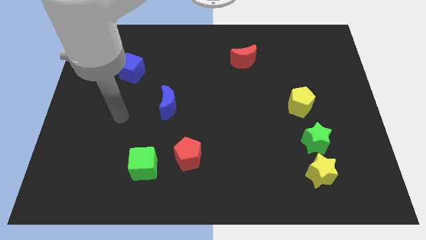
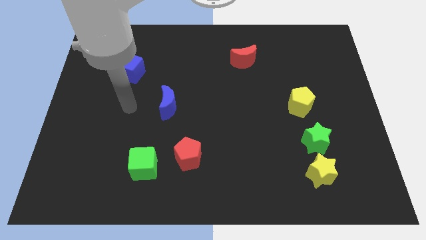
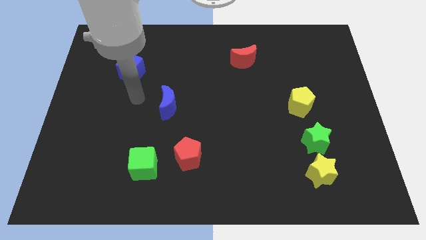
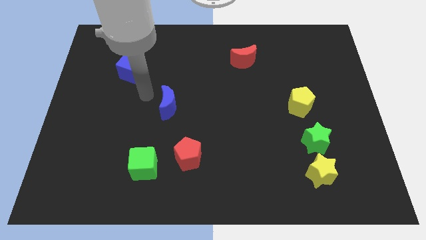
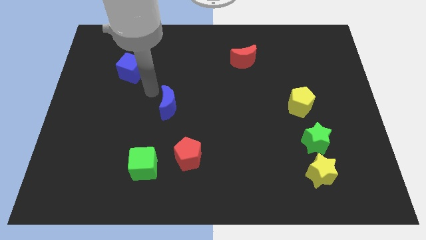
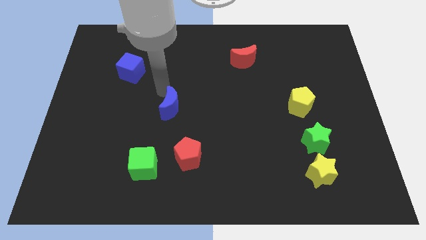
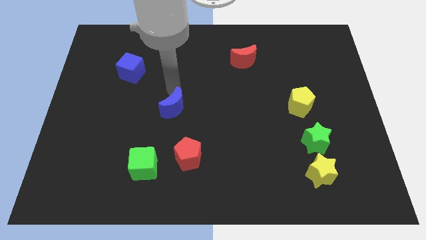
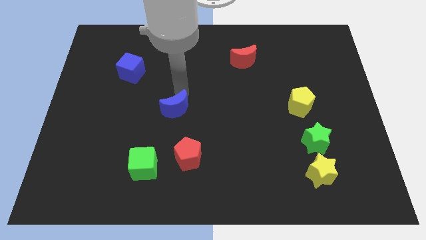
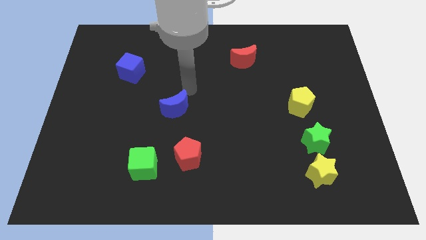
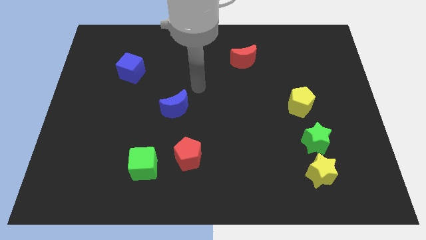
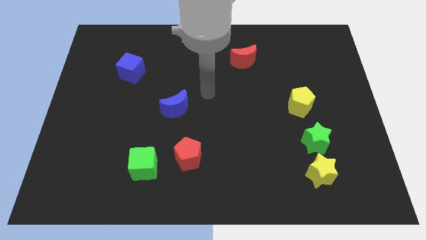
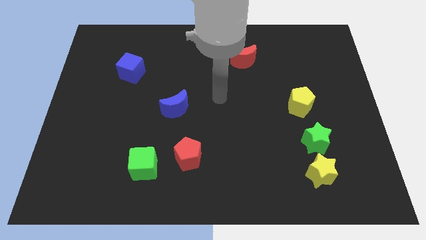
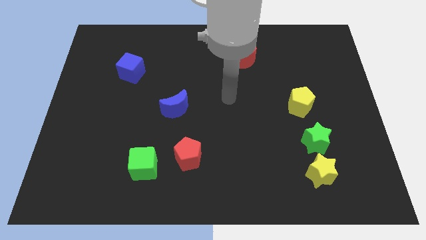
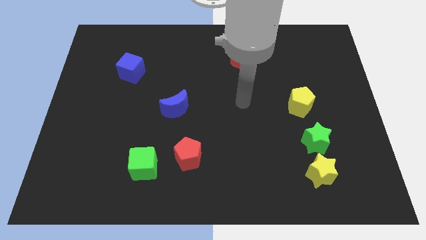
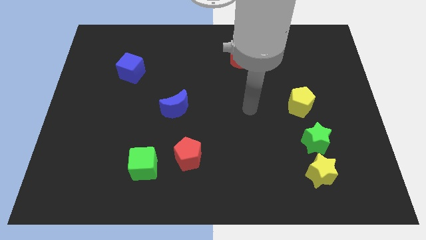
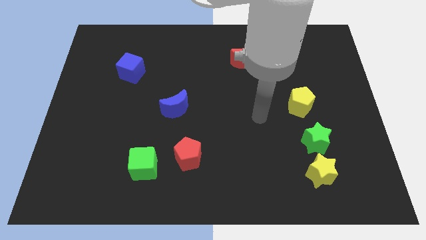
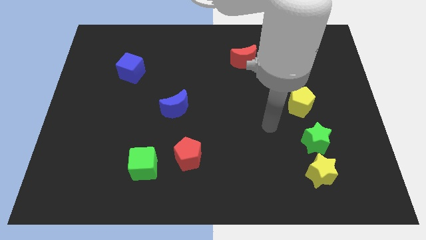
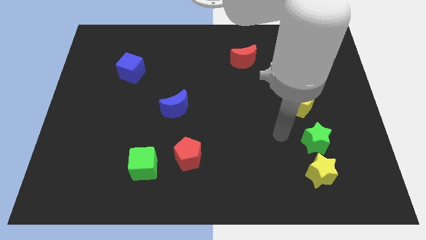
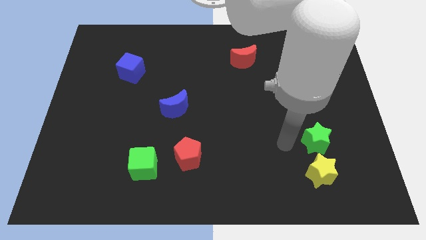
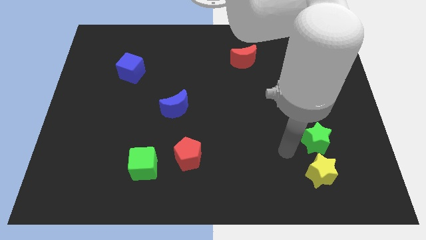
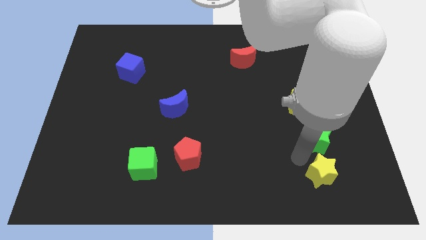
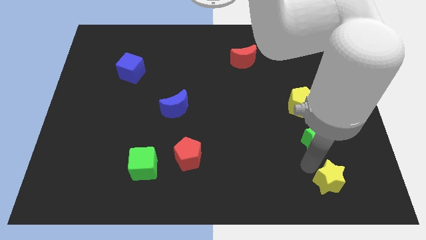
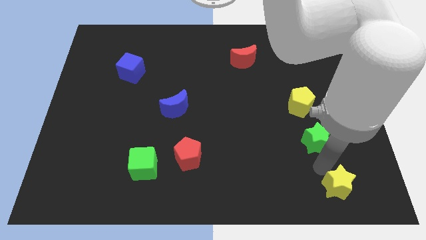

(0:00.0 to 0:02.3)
separate the green star from the yellow star

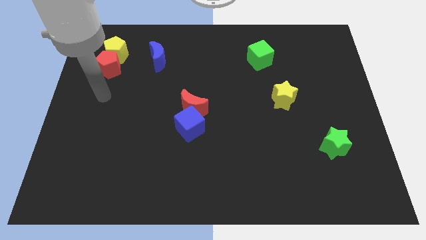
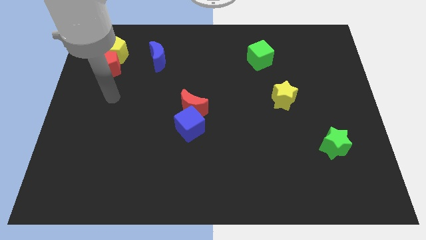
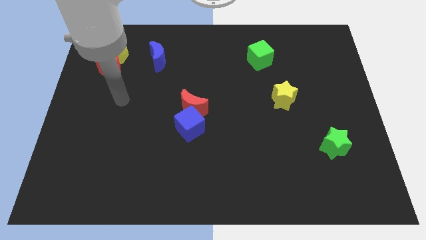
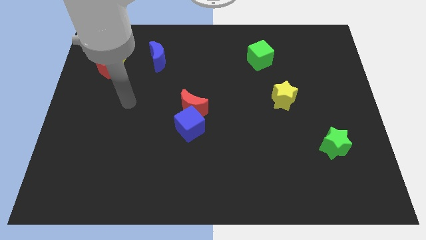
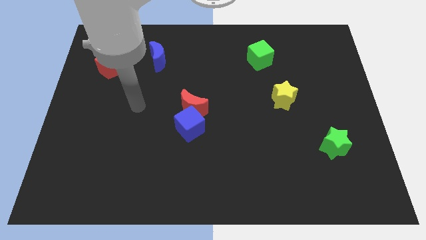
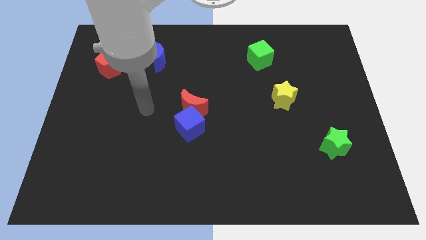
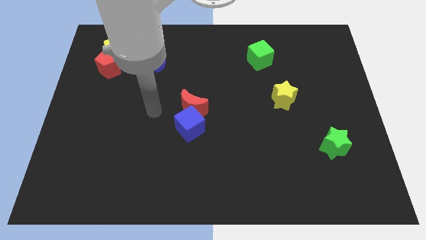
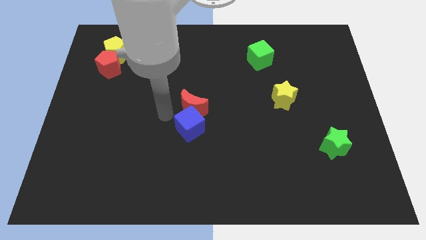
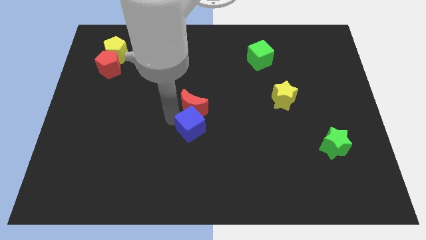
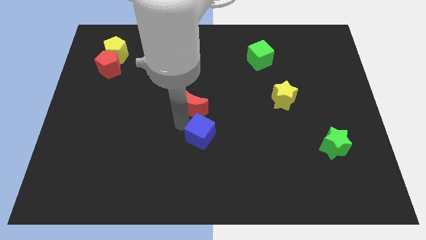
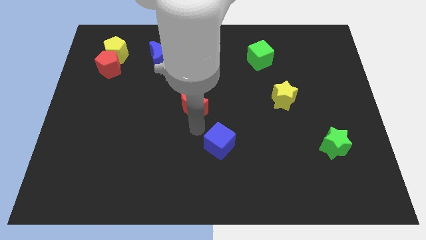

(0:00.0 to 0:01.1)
separate the red moon from the blue cube

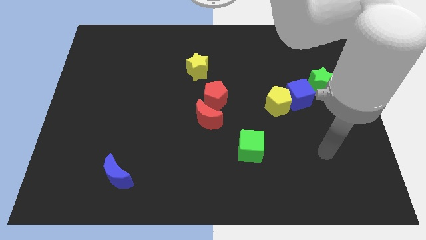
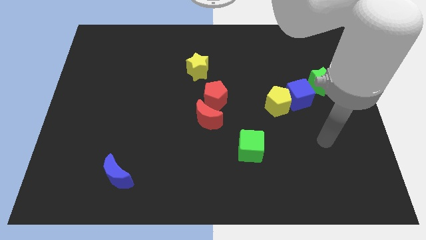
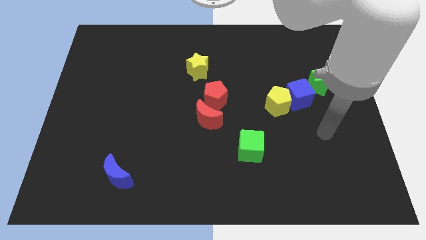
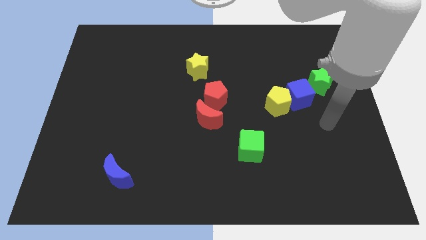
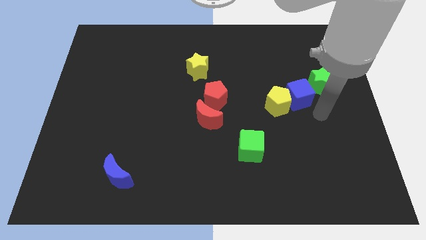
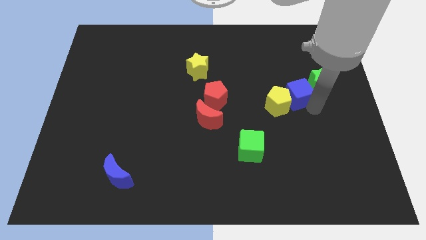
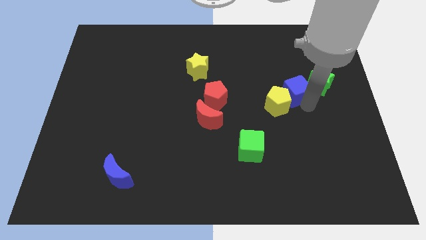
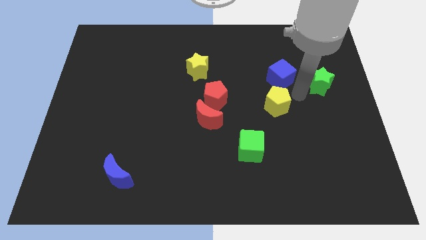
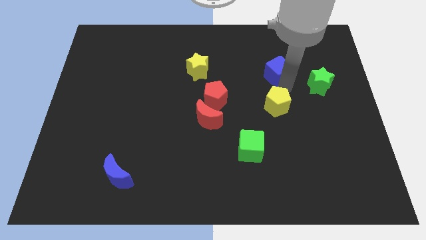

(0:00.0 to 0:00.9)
pull the yellow pentagon apart from the blue cube

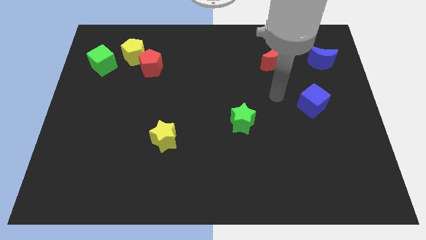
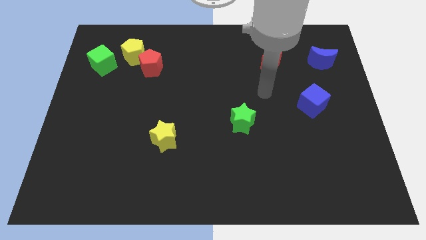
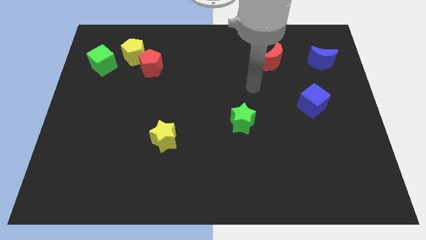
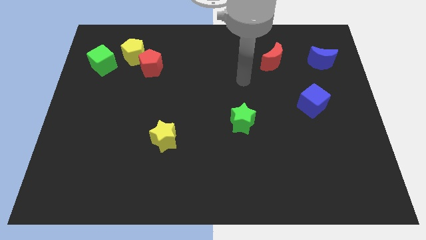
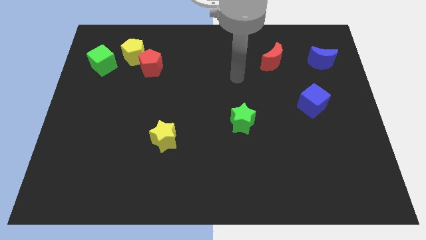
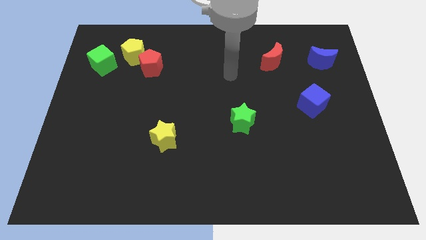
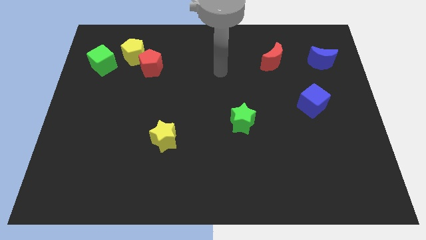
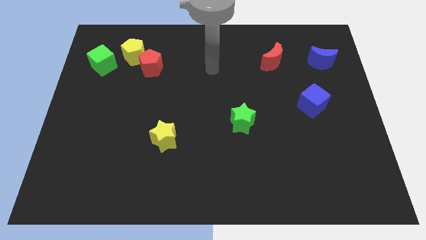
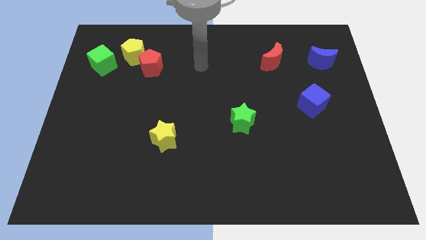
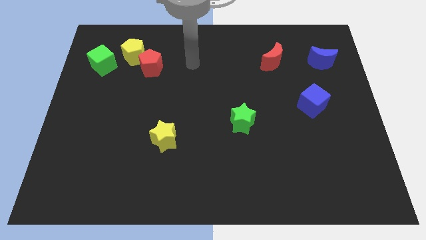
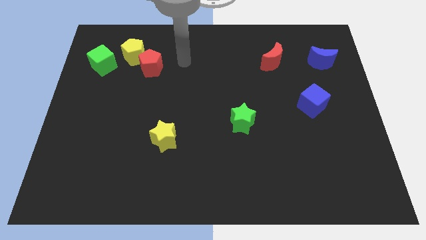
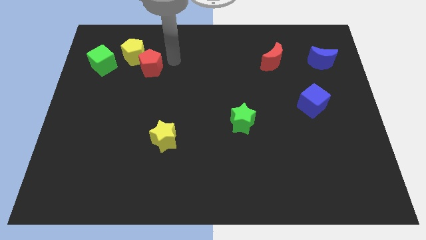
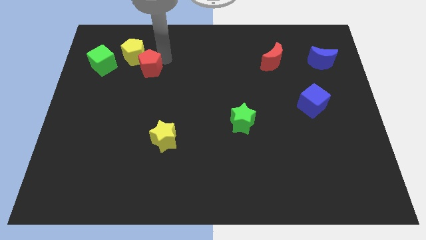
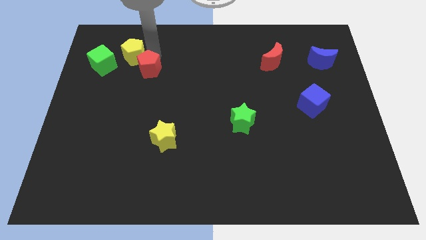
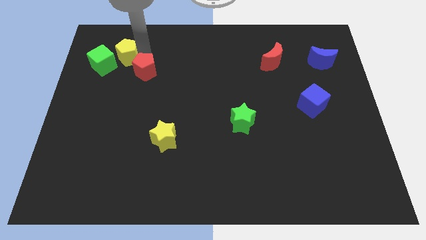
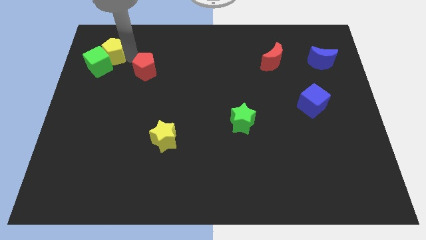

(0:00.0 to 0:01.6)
move the red pentagon away from the yellow pentagon

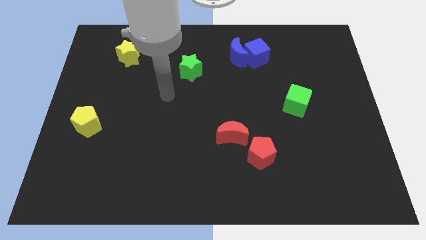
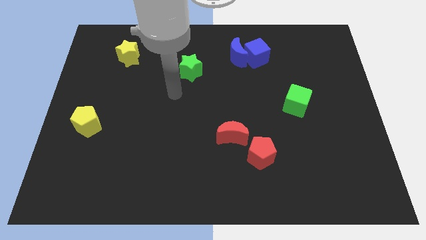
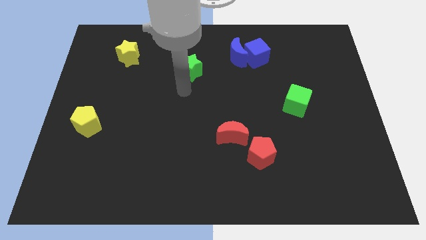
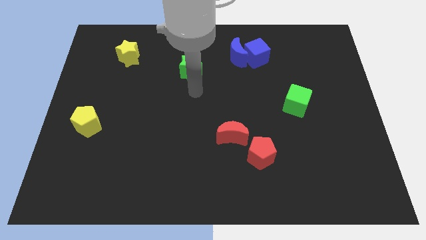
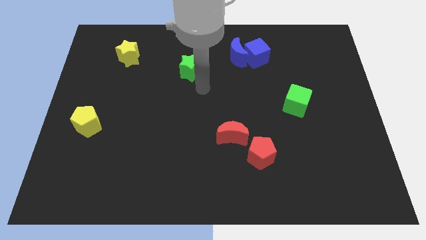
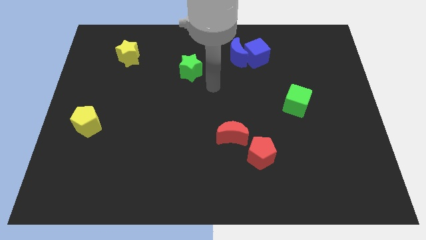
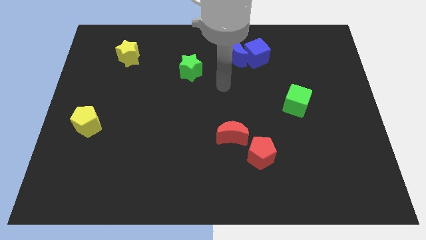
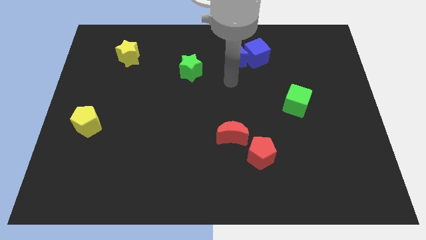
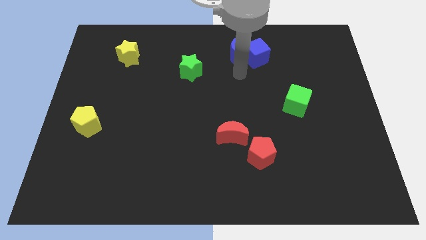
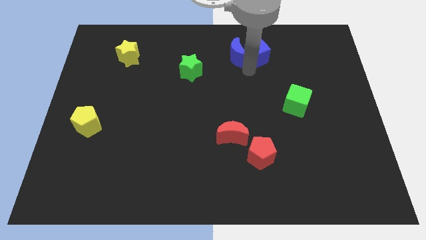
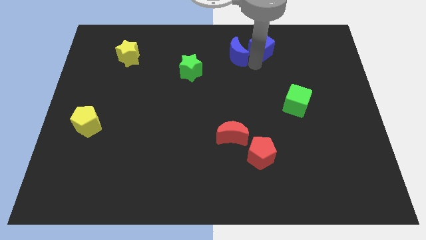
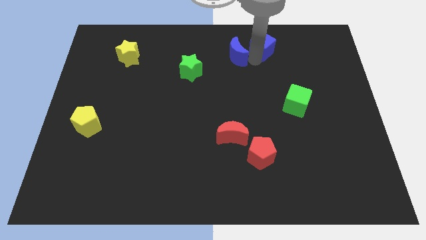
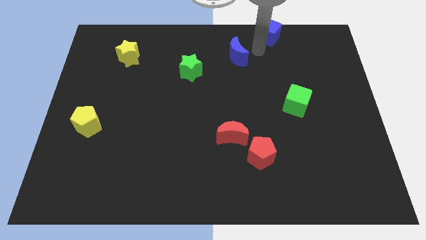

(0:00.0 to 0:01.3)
separate the blue moon from the blue cube

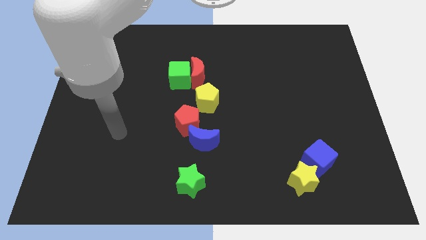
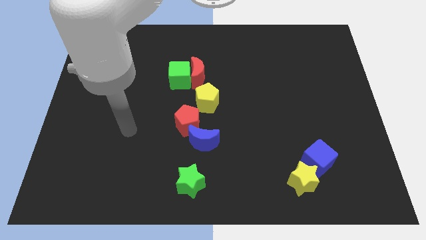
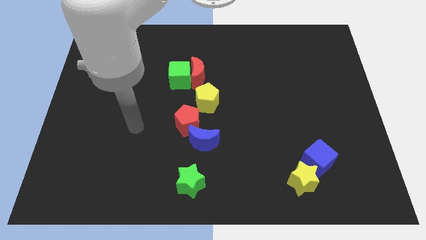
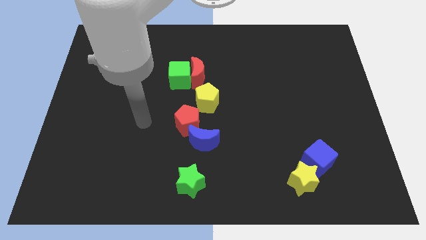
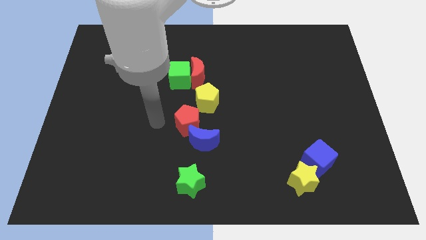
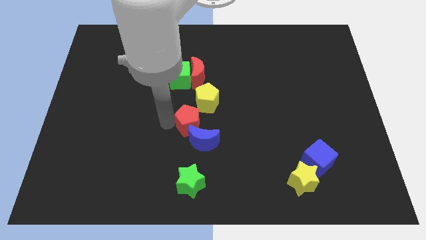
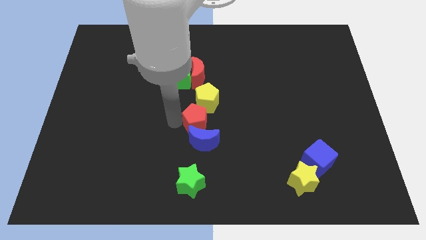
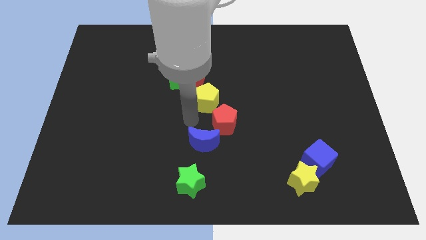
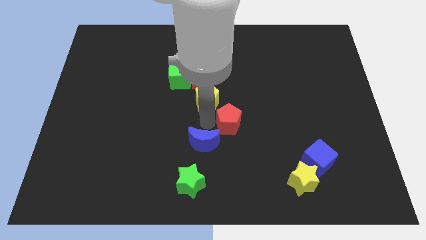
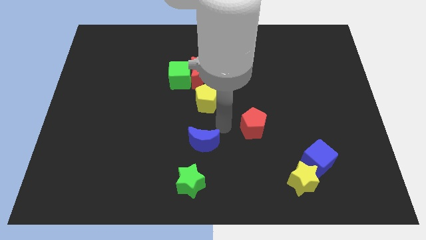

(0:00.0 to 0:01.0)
separate the blue moon from the red pentagon

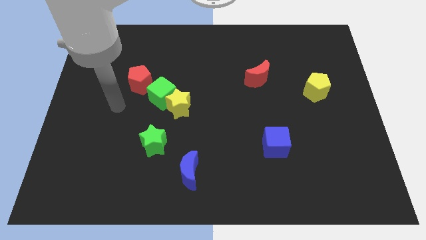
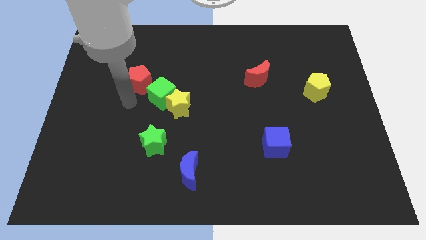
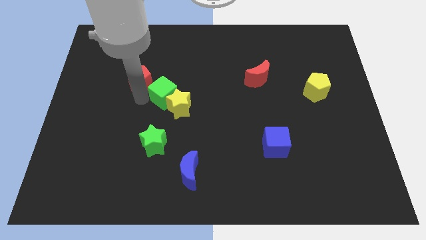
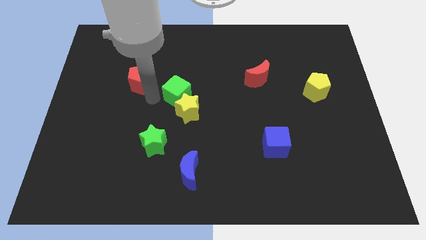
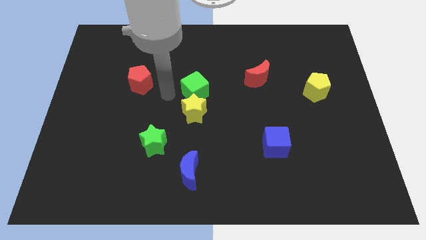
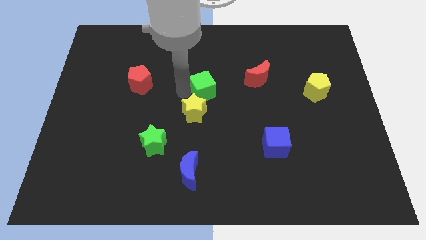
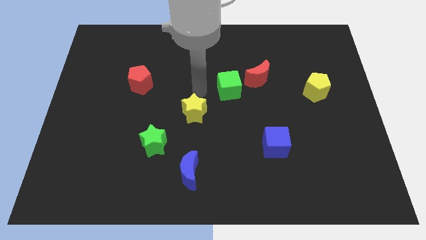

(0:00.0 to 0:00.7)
separate the yellow star from the green cube

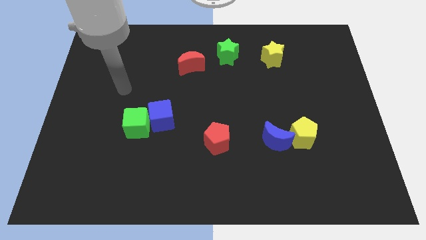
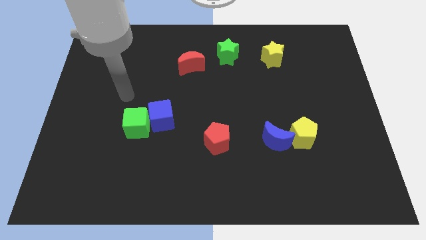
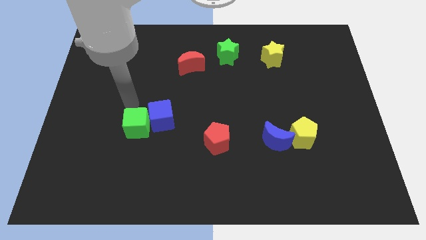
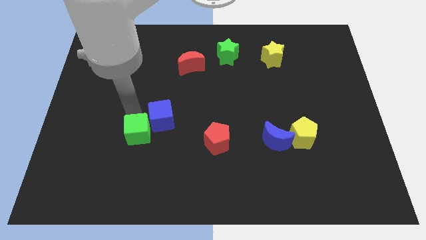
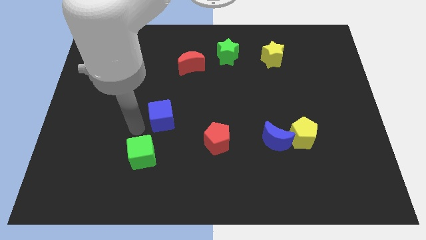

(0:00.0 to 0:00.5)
separate the blue cube from the green cube
